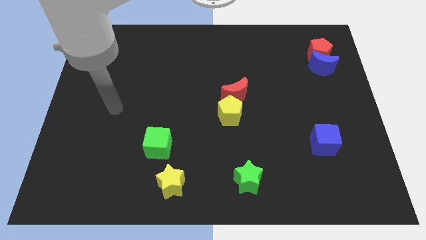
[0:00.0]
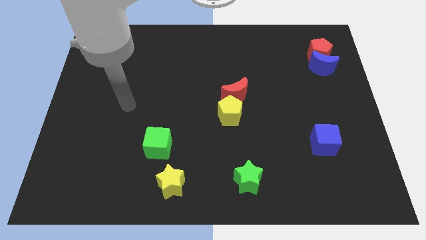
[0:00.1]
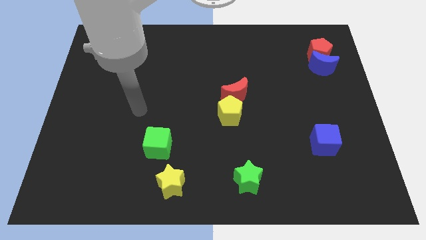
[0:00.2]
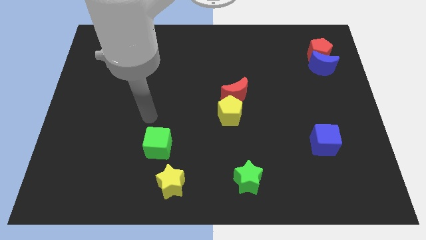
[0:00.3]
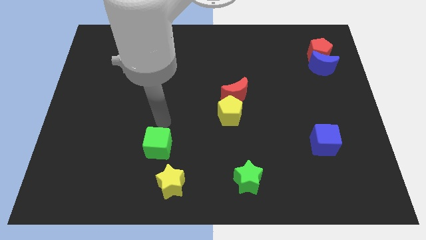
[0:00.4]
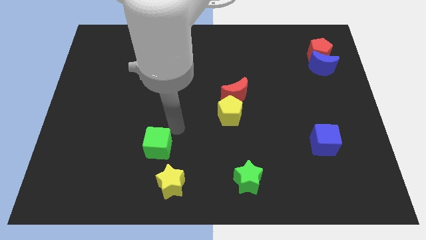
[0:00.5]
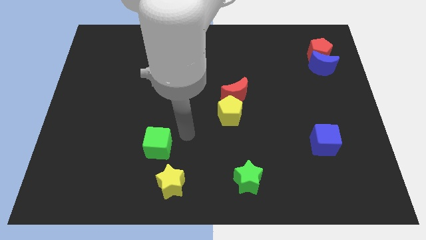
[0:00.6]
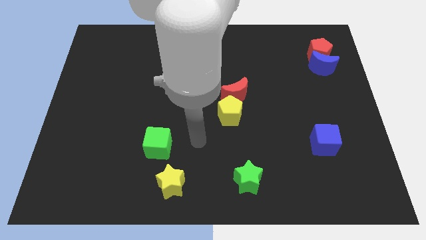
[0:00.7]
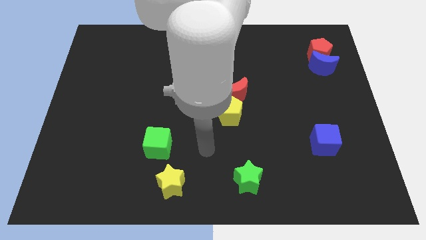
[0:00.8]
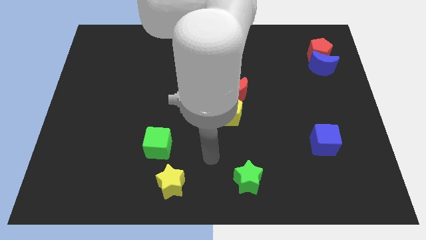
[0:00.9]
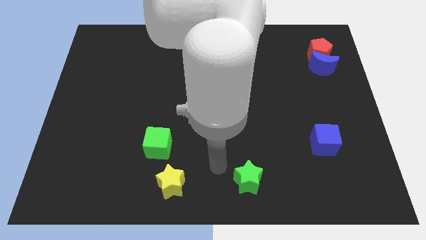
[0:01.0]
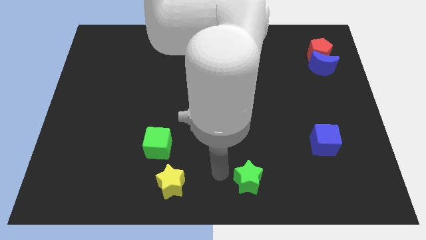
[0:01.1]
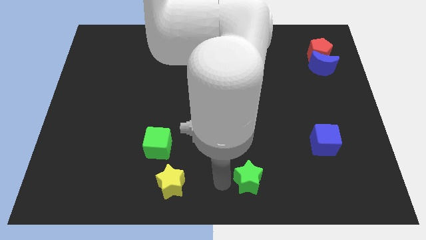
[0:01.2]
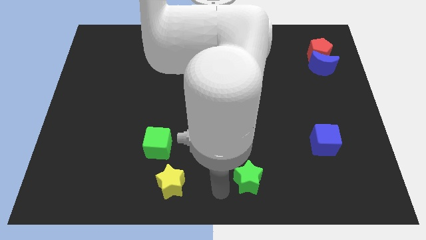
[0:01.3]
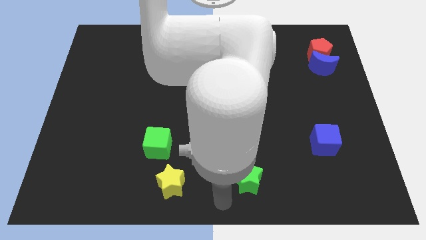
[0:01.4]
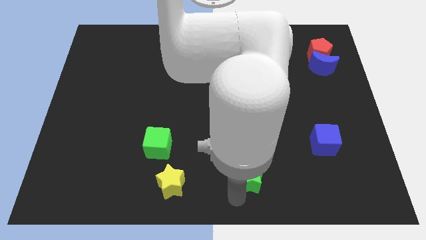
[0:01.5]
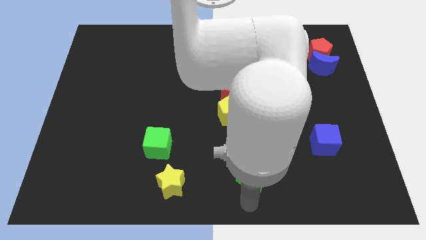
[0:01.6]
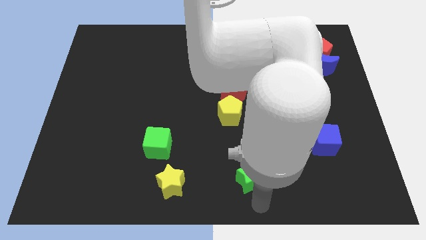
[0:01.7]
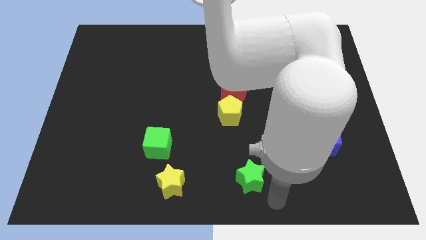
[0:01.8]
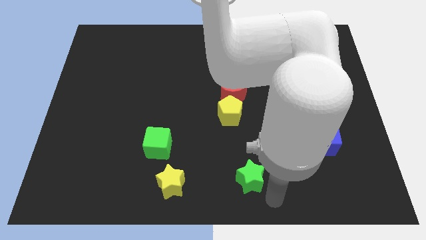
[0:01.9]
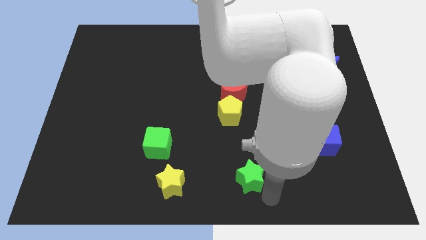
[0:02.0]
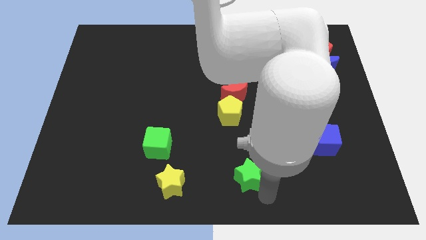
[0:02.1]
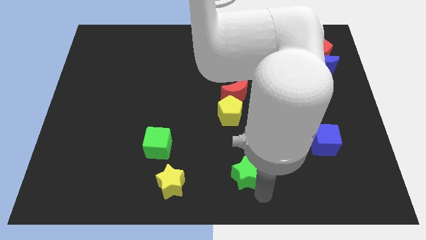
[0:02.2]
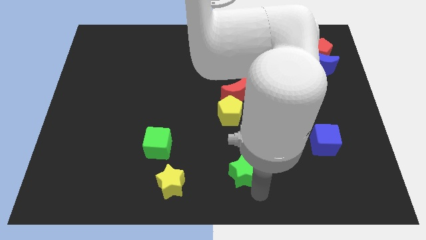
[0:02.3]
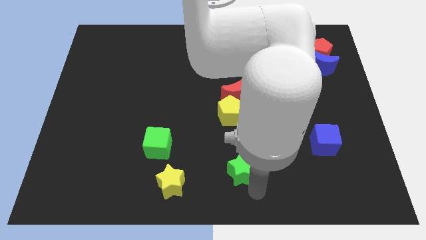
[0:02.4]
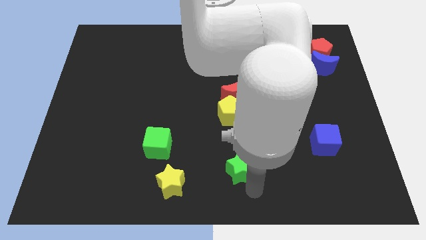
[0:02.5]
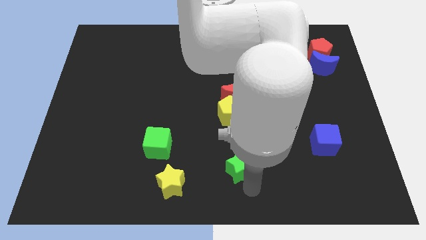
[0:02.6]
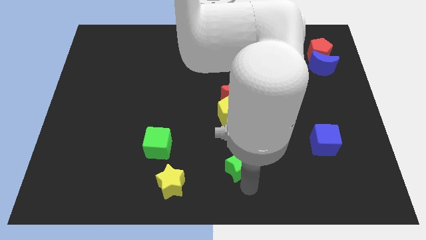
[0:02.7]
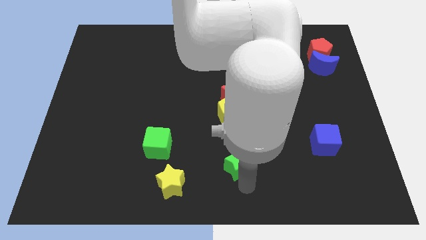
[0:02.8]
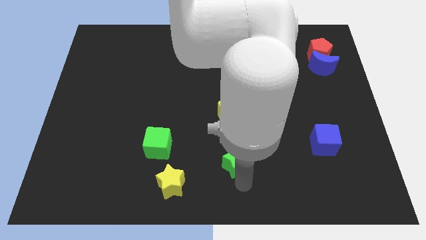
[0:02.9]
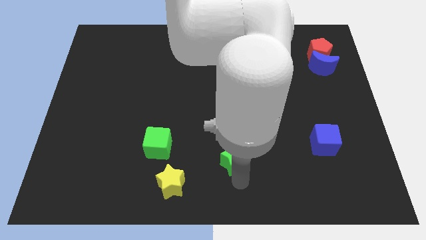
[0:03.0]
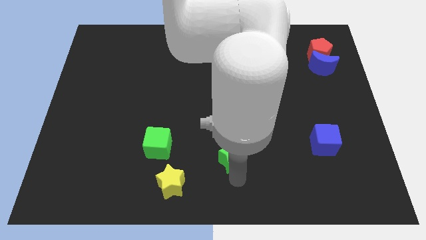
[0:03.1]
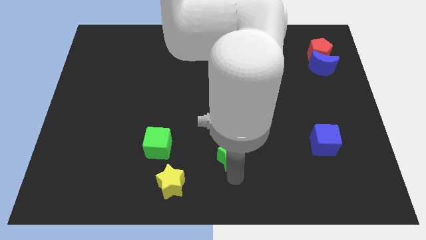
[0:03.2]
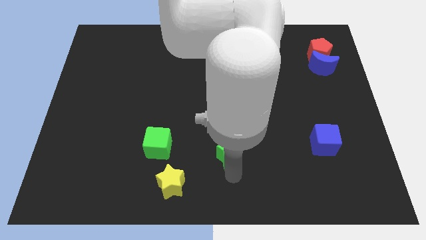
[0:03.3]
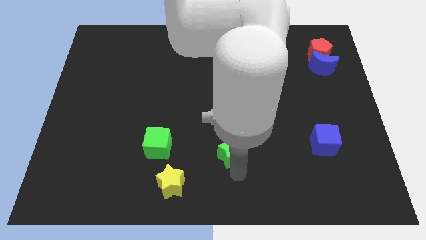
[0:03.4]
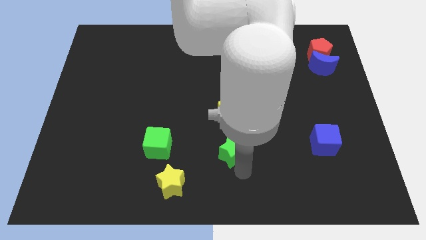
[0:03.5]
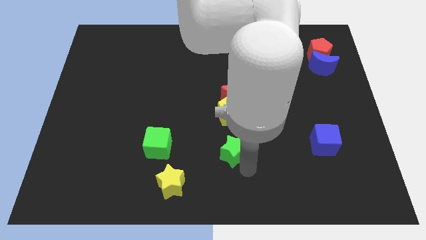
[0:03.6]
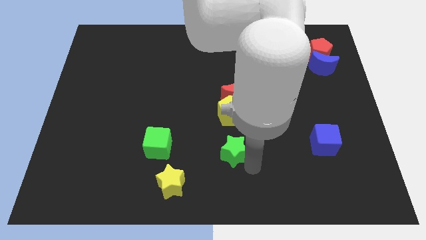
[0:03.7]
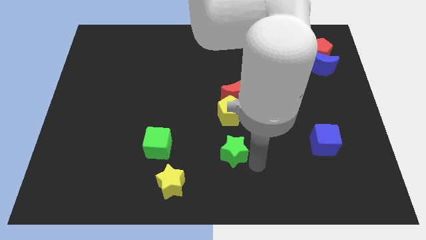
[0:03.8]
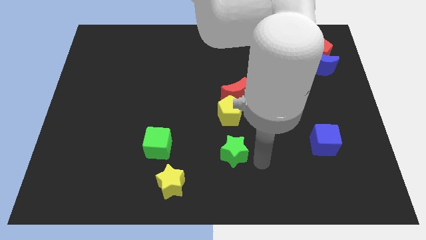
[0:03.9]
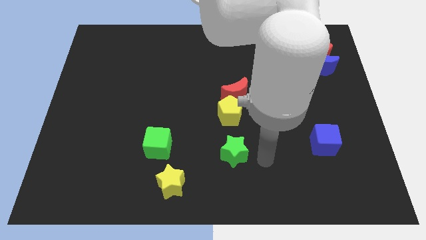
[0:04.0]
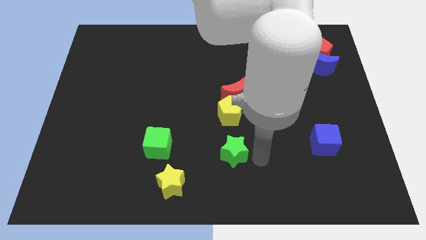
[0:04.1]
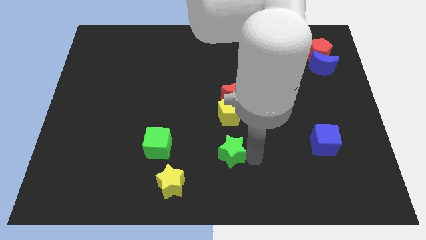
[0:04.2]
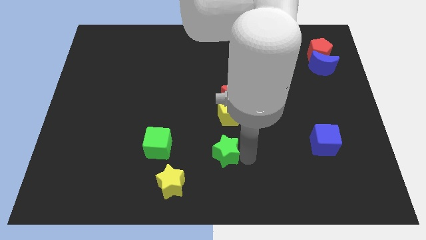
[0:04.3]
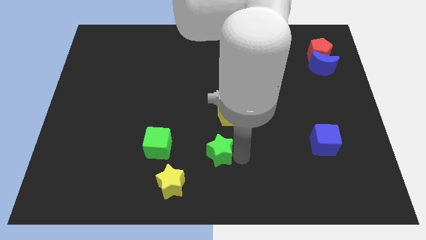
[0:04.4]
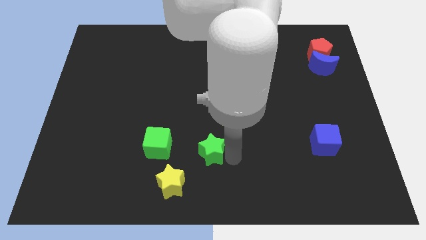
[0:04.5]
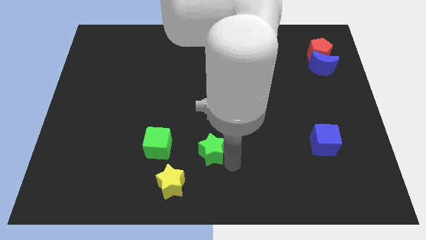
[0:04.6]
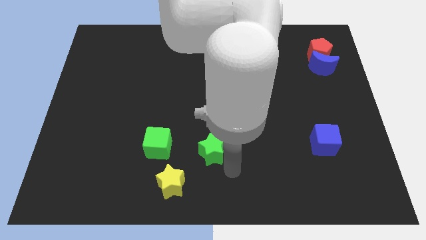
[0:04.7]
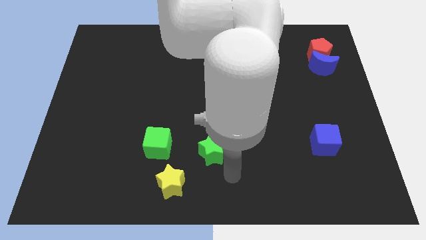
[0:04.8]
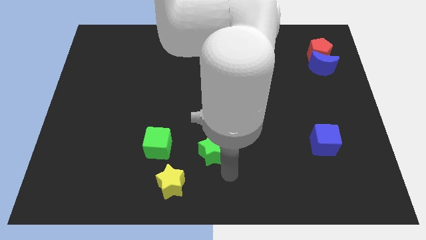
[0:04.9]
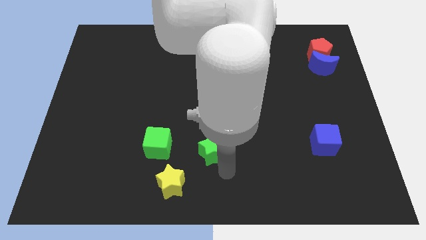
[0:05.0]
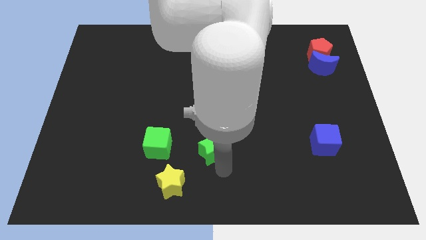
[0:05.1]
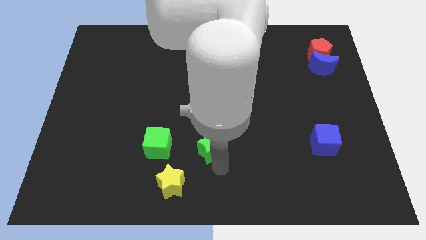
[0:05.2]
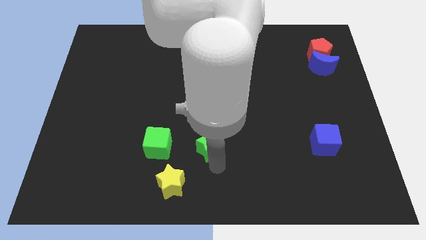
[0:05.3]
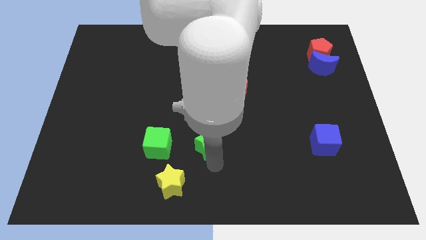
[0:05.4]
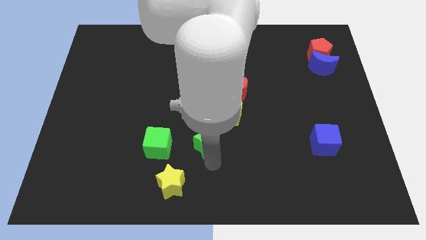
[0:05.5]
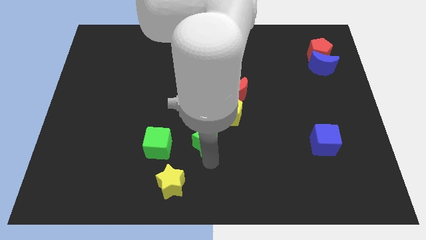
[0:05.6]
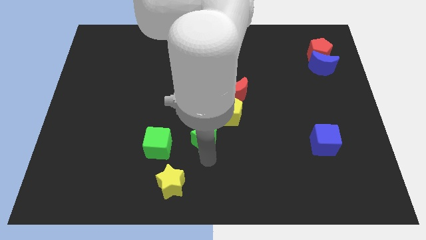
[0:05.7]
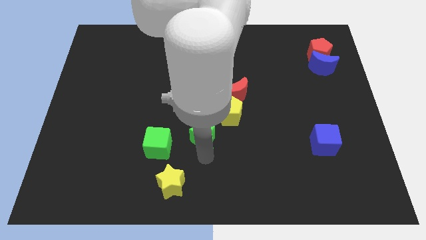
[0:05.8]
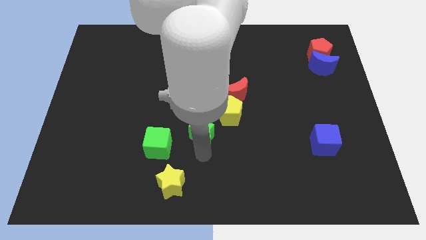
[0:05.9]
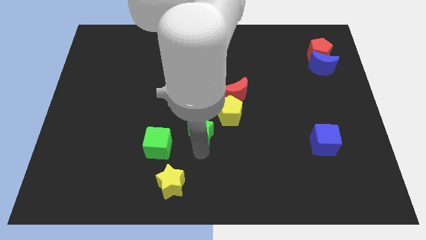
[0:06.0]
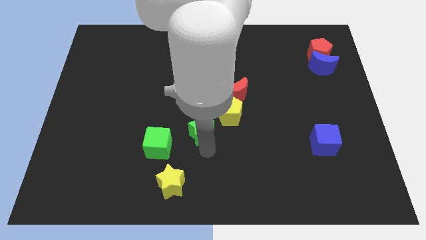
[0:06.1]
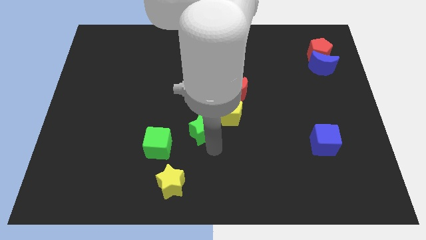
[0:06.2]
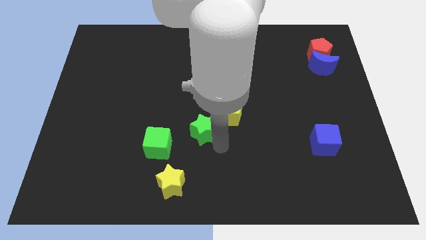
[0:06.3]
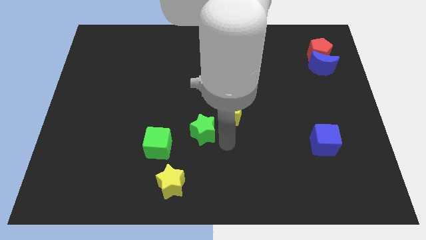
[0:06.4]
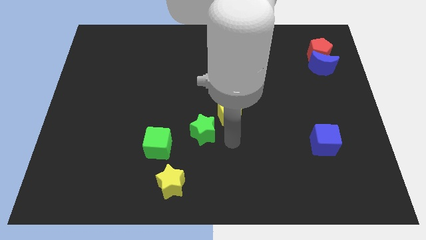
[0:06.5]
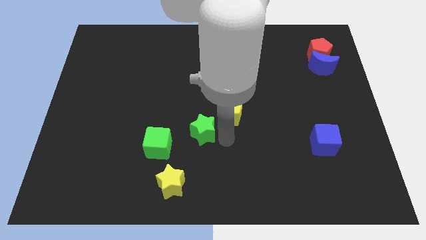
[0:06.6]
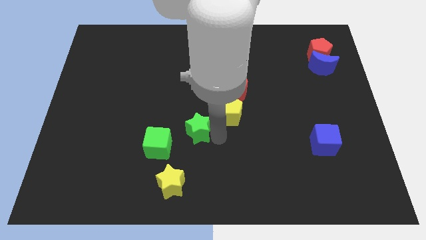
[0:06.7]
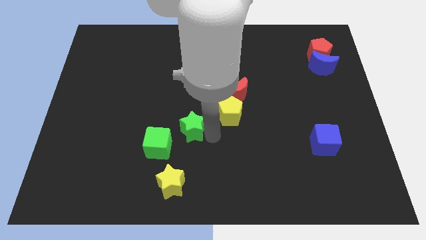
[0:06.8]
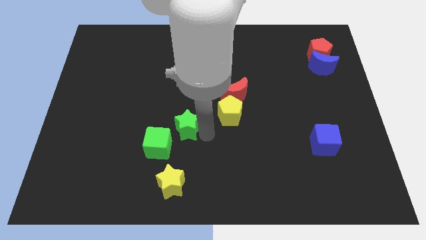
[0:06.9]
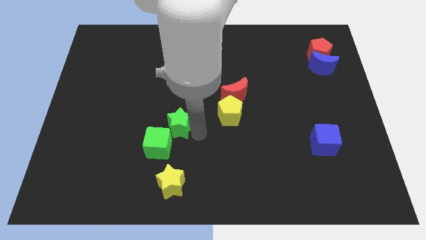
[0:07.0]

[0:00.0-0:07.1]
push the green star up and left diagonally

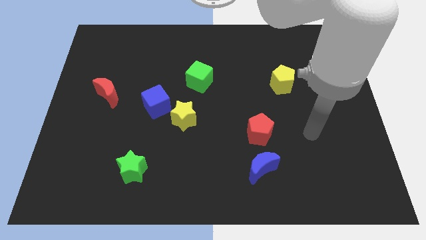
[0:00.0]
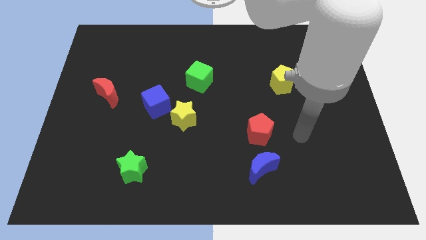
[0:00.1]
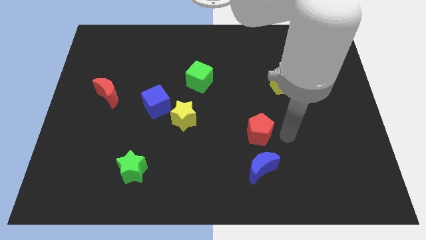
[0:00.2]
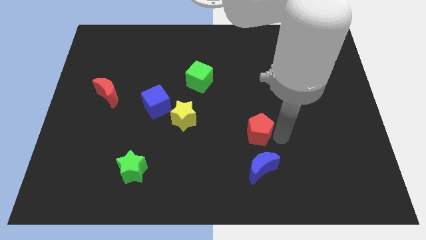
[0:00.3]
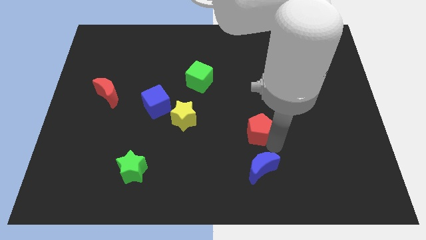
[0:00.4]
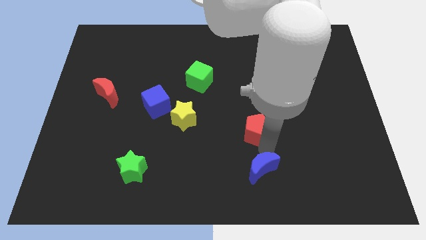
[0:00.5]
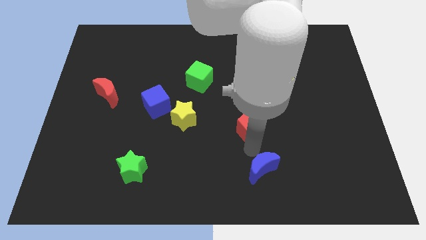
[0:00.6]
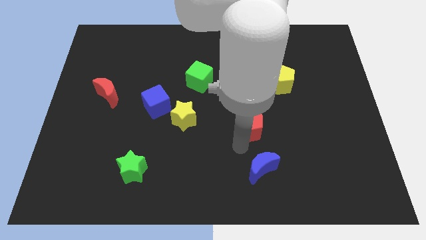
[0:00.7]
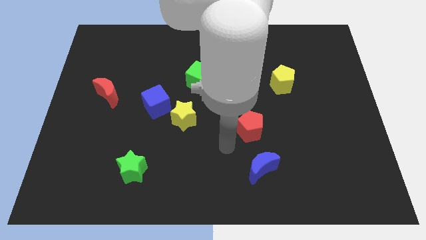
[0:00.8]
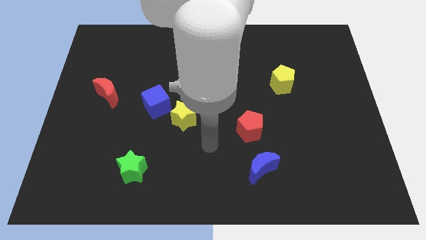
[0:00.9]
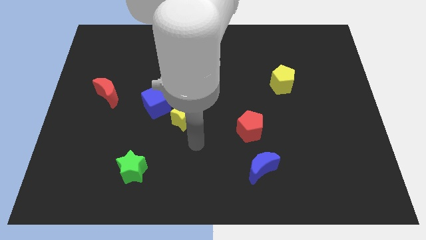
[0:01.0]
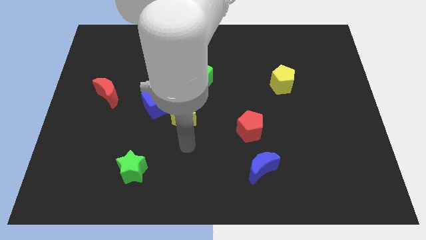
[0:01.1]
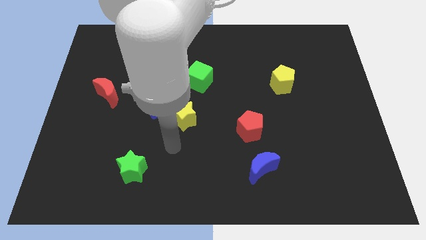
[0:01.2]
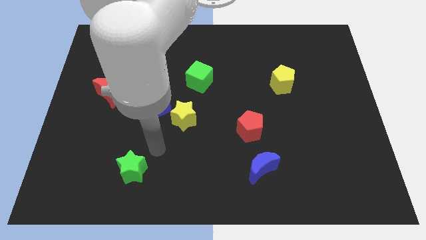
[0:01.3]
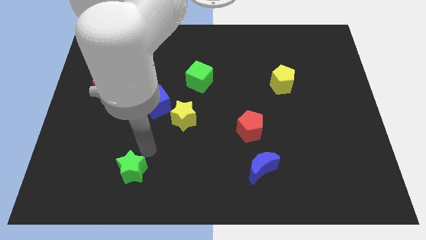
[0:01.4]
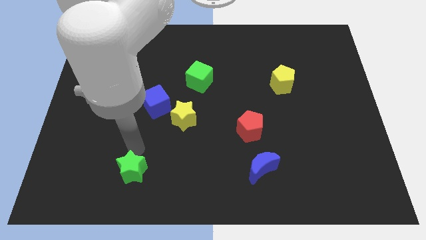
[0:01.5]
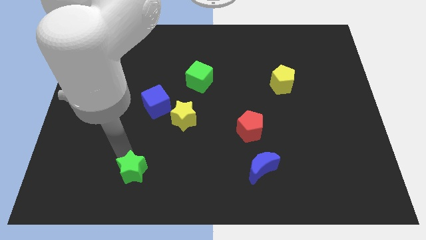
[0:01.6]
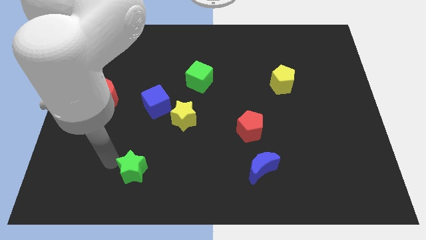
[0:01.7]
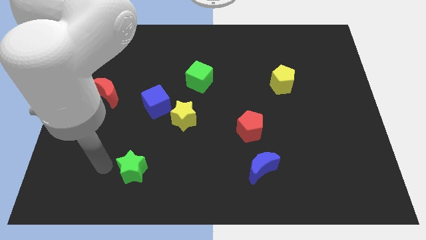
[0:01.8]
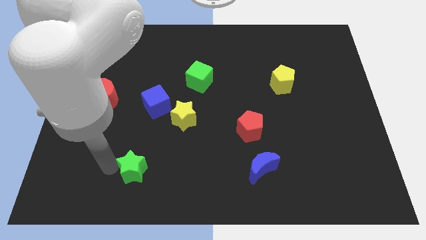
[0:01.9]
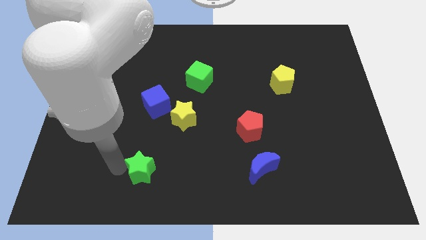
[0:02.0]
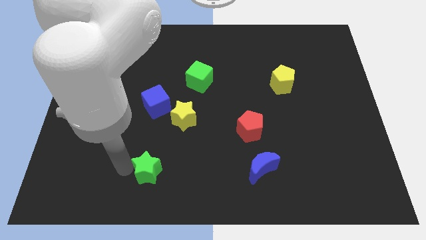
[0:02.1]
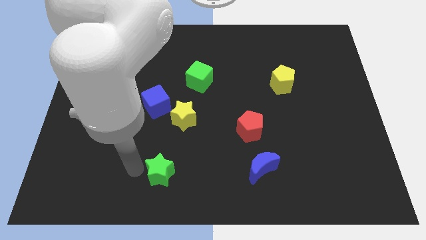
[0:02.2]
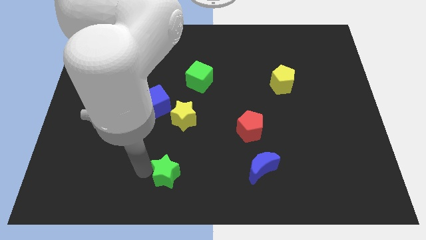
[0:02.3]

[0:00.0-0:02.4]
move the green star slightly to the right
